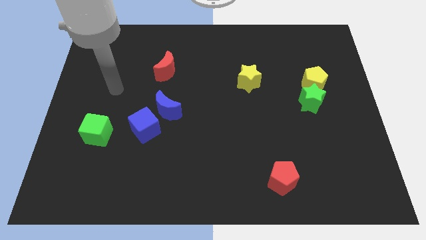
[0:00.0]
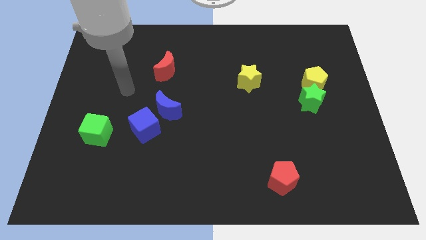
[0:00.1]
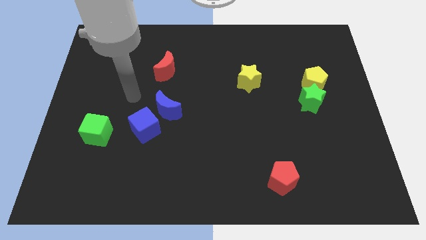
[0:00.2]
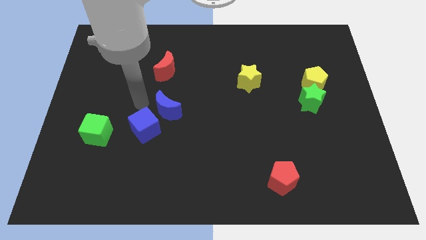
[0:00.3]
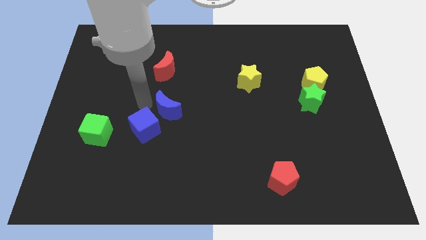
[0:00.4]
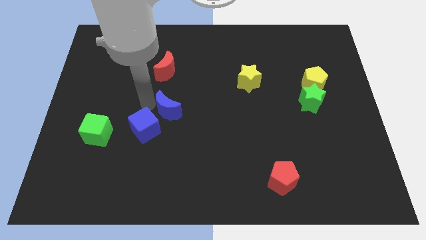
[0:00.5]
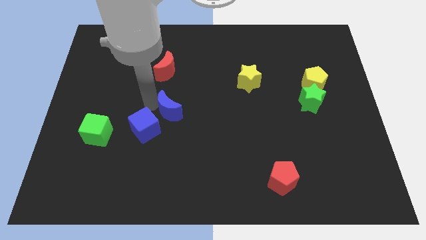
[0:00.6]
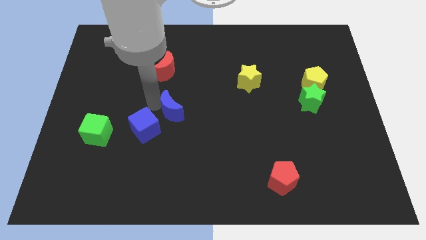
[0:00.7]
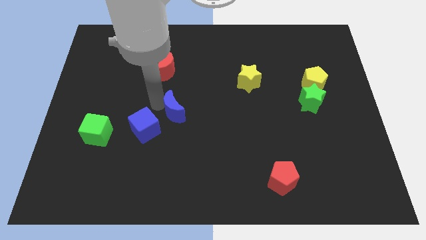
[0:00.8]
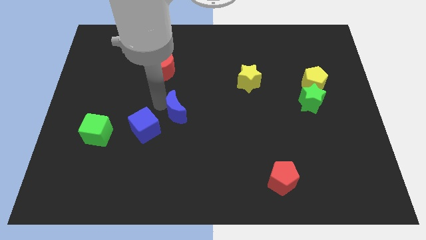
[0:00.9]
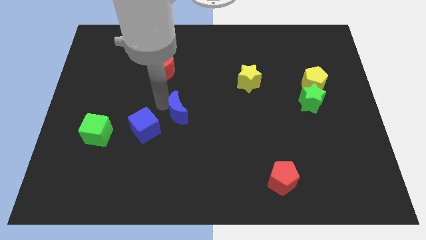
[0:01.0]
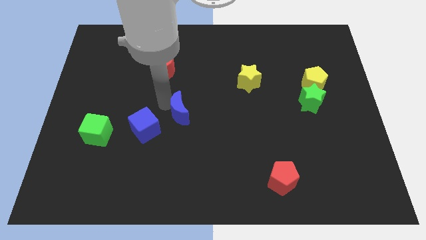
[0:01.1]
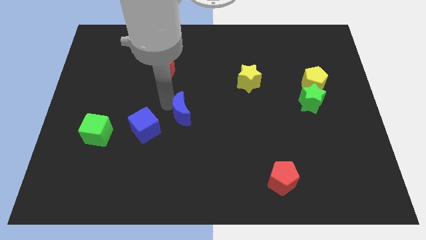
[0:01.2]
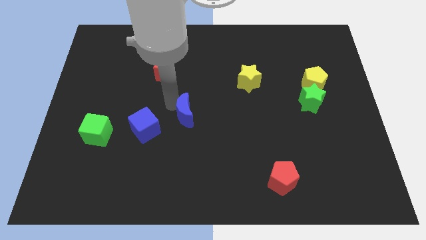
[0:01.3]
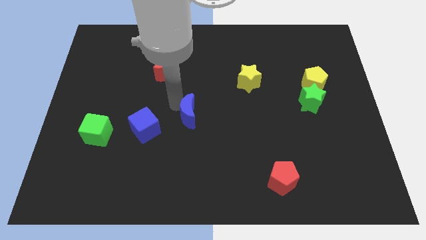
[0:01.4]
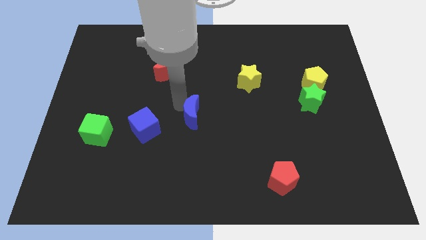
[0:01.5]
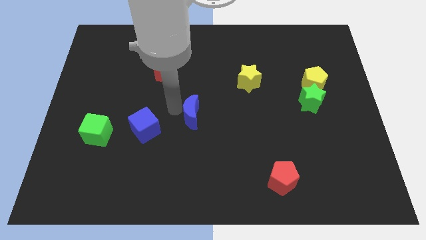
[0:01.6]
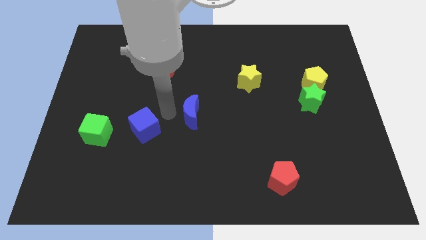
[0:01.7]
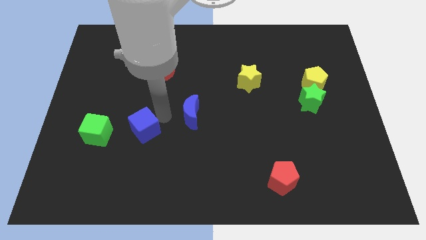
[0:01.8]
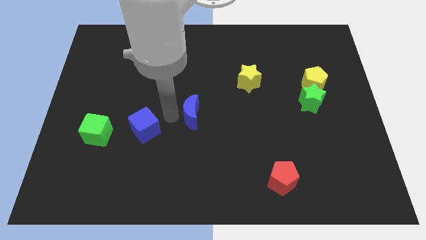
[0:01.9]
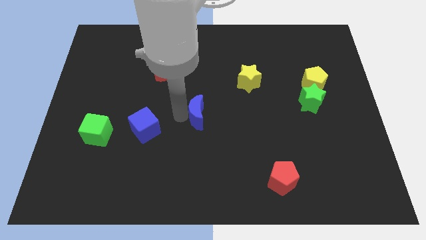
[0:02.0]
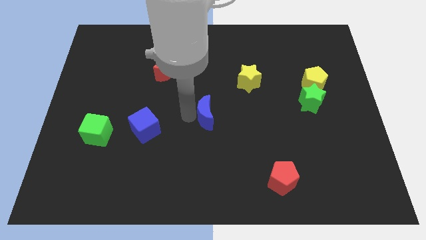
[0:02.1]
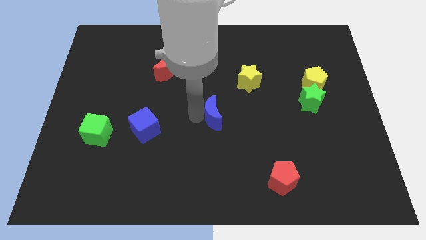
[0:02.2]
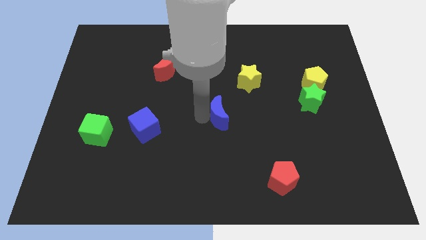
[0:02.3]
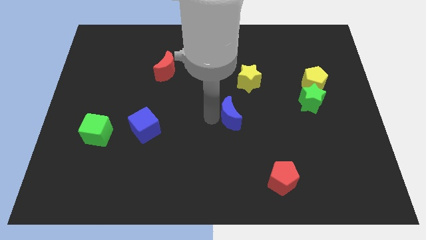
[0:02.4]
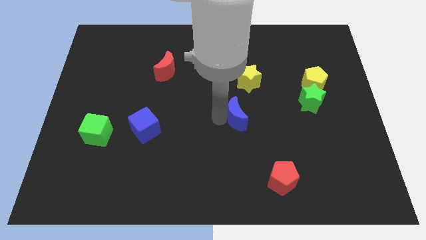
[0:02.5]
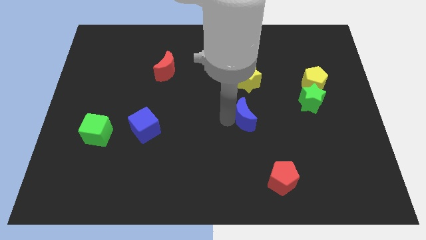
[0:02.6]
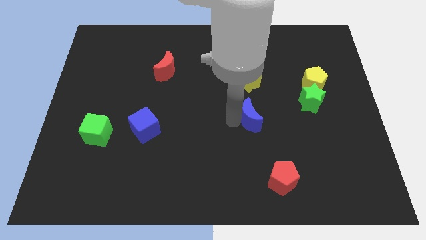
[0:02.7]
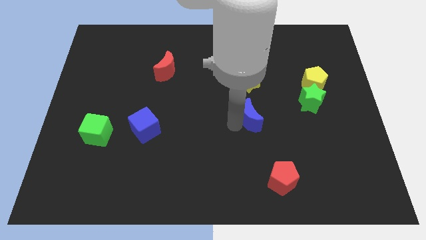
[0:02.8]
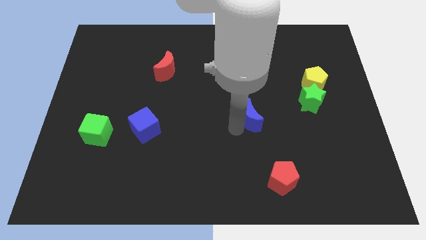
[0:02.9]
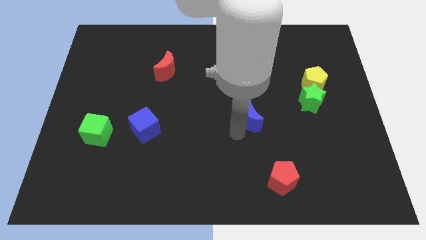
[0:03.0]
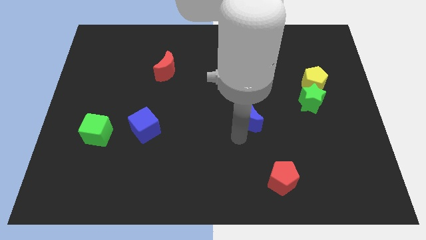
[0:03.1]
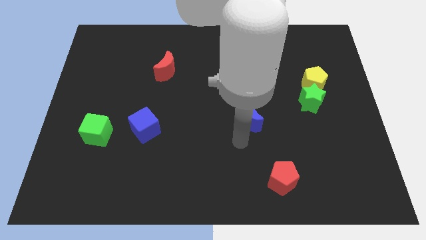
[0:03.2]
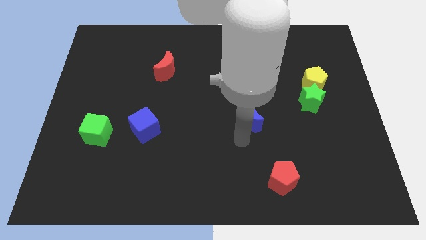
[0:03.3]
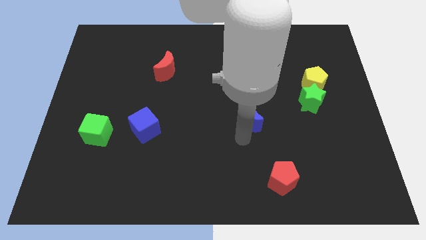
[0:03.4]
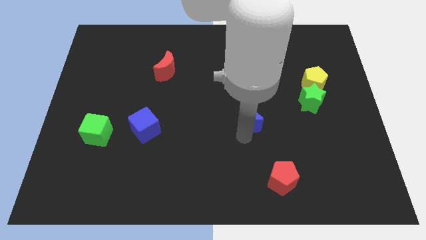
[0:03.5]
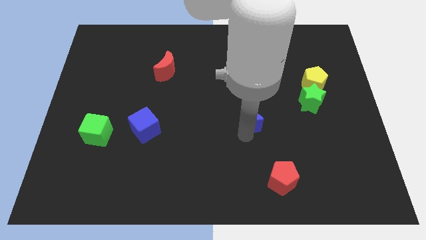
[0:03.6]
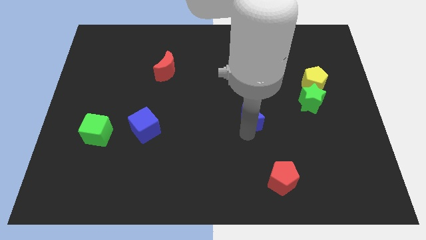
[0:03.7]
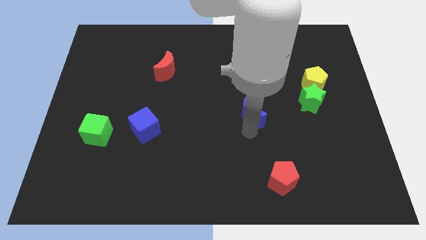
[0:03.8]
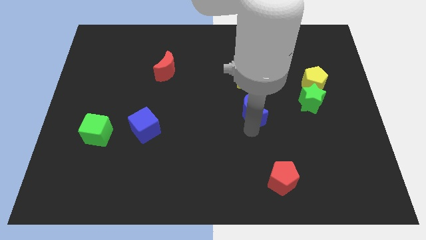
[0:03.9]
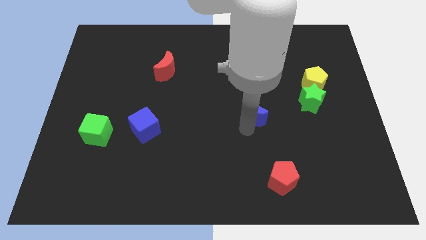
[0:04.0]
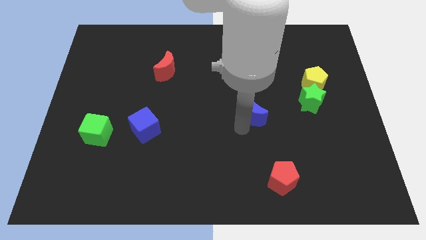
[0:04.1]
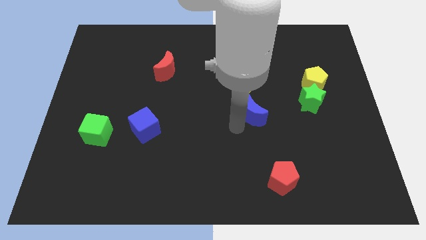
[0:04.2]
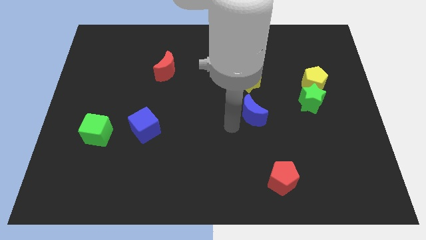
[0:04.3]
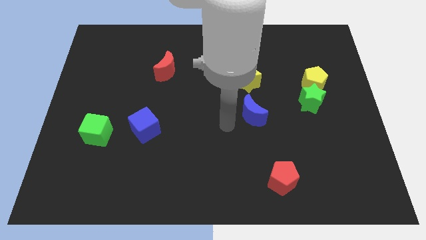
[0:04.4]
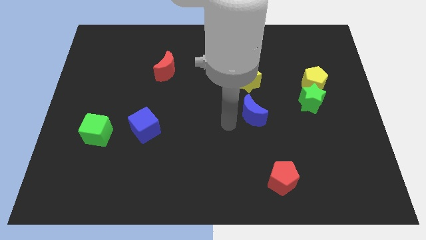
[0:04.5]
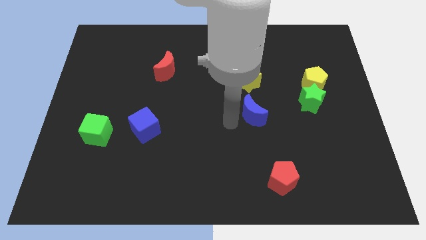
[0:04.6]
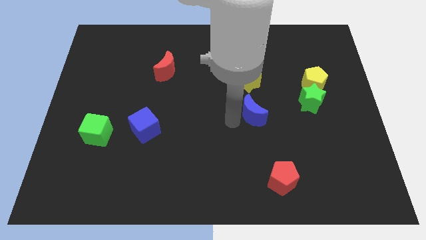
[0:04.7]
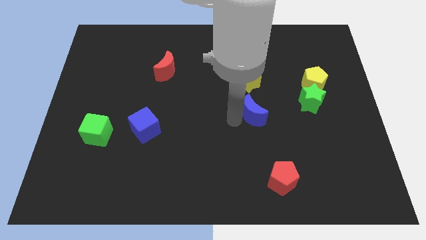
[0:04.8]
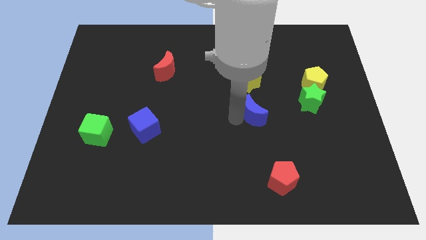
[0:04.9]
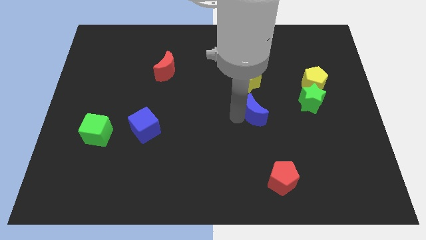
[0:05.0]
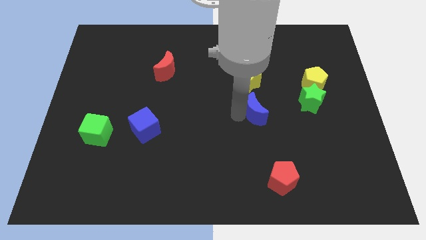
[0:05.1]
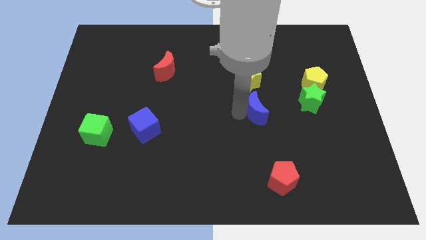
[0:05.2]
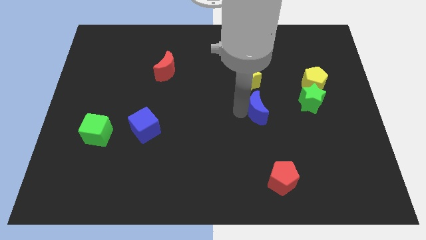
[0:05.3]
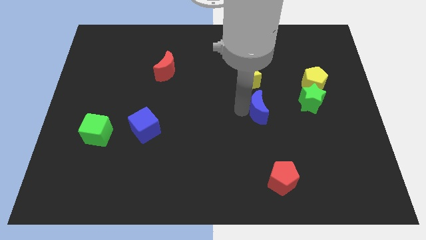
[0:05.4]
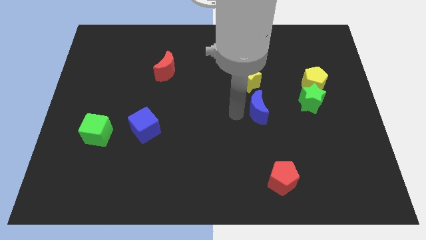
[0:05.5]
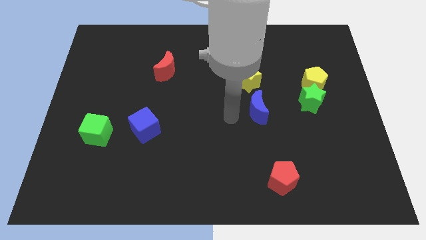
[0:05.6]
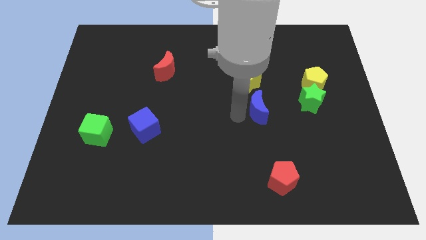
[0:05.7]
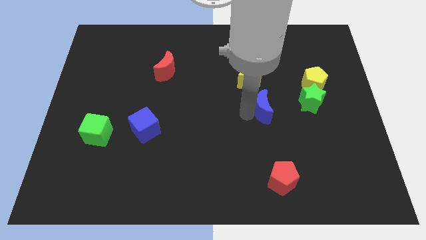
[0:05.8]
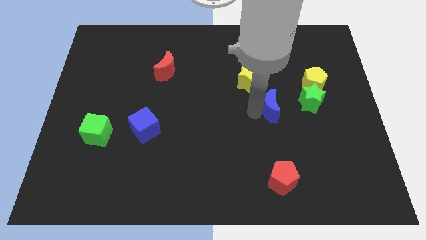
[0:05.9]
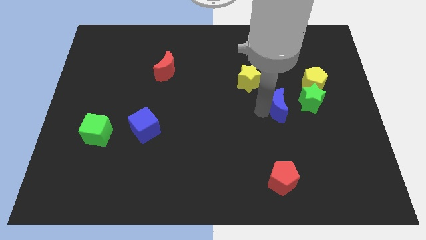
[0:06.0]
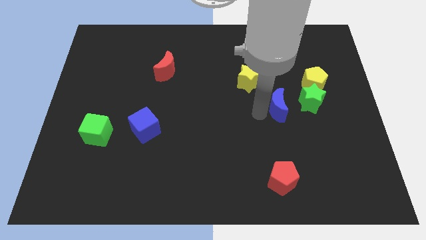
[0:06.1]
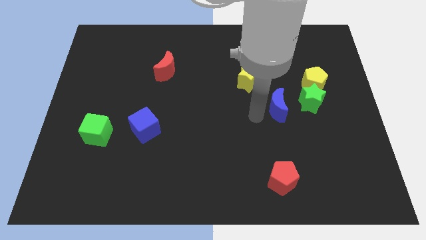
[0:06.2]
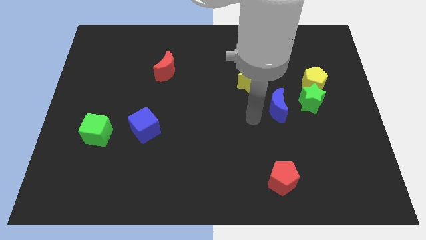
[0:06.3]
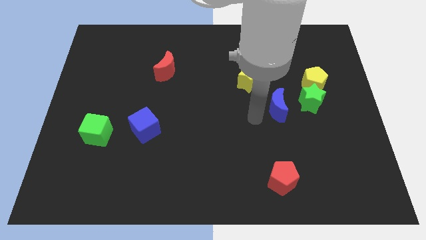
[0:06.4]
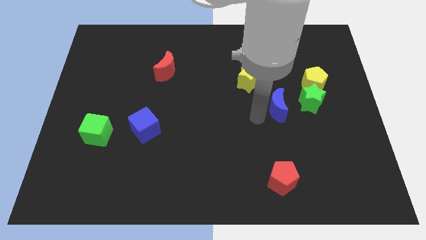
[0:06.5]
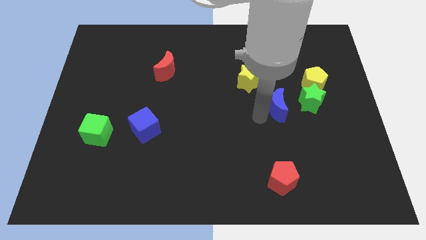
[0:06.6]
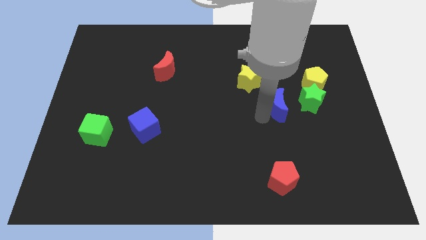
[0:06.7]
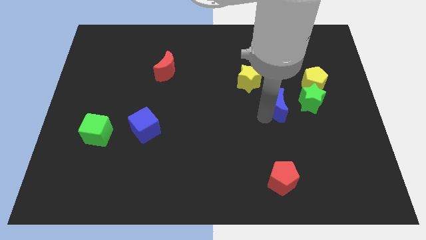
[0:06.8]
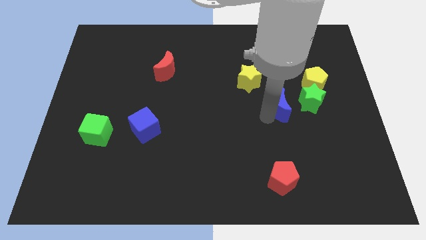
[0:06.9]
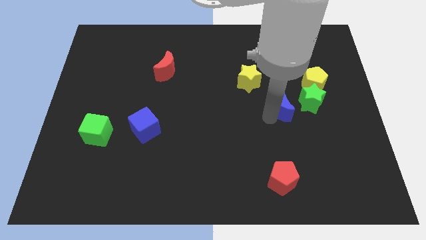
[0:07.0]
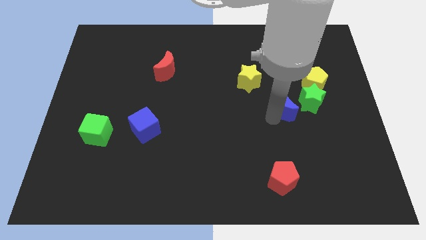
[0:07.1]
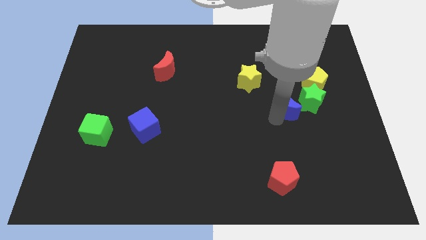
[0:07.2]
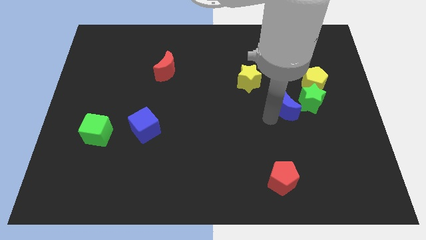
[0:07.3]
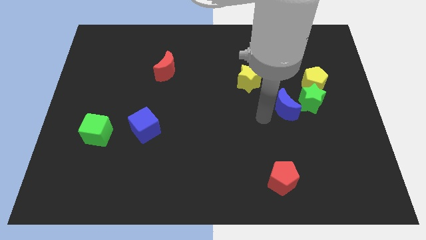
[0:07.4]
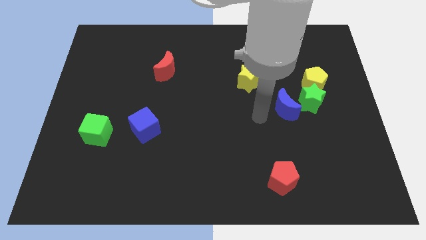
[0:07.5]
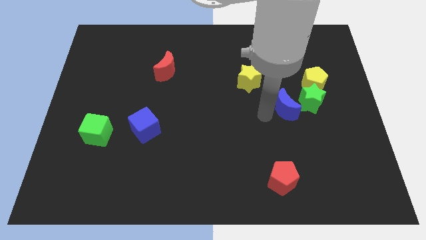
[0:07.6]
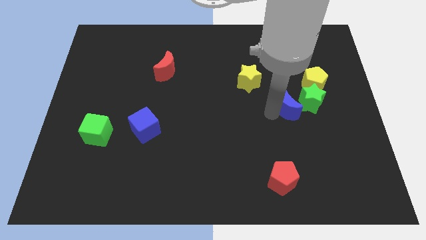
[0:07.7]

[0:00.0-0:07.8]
put the blue moon close to the green star
